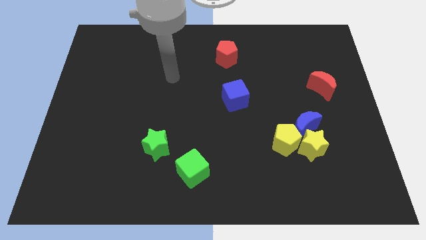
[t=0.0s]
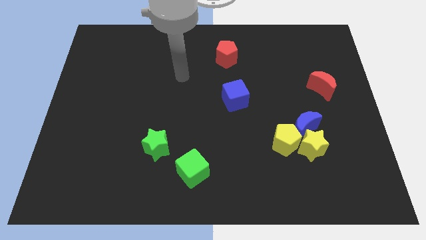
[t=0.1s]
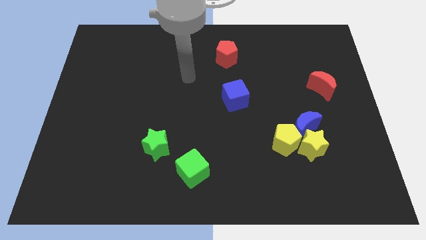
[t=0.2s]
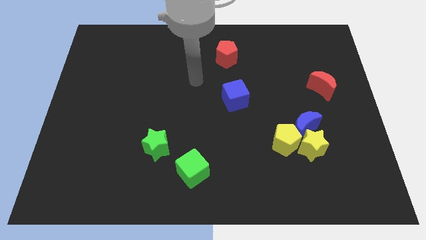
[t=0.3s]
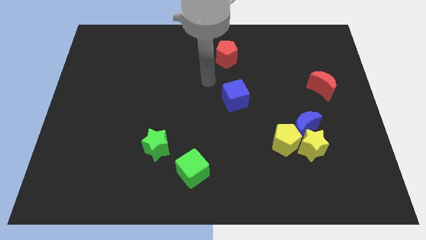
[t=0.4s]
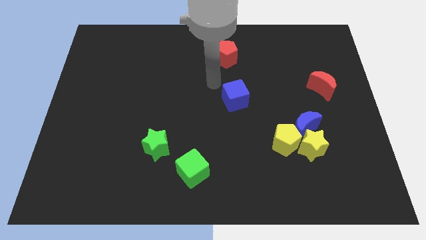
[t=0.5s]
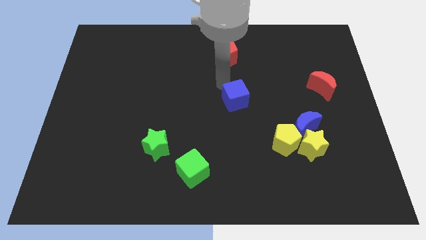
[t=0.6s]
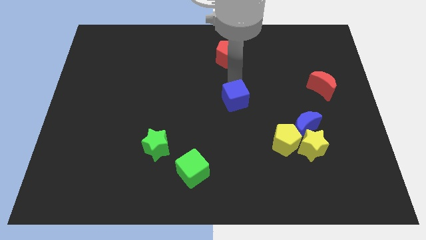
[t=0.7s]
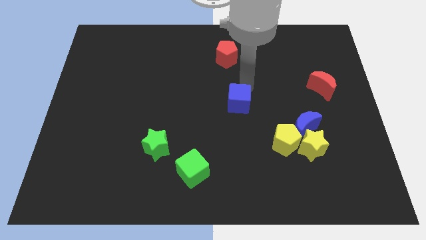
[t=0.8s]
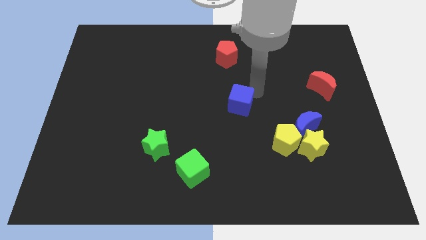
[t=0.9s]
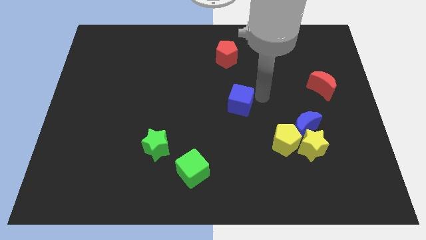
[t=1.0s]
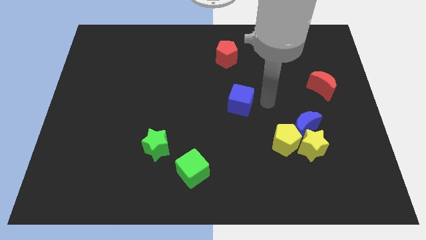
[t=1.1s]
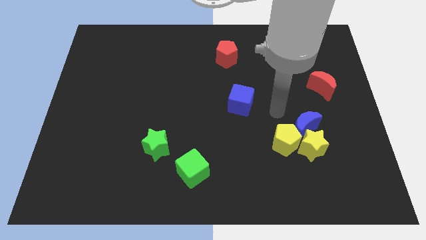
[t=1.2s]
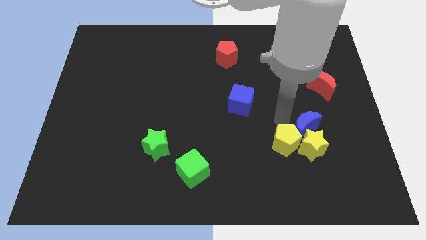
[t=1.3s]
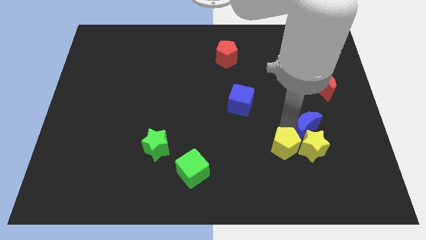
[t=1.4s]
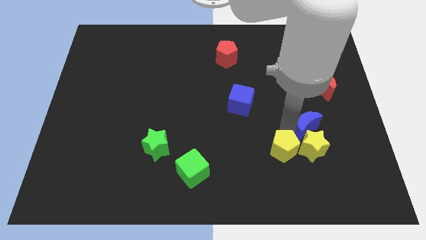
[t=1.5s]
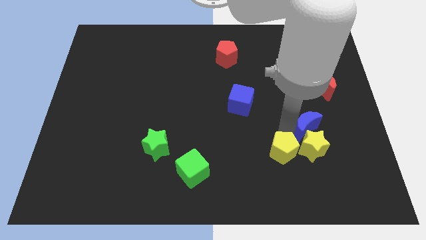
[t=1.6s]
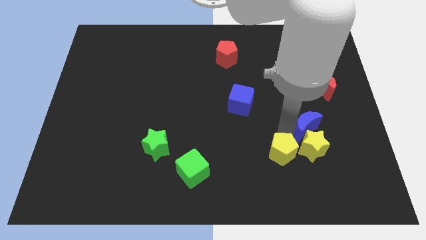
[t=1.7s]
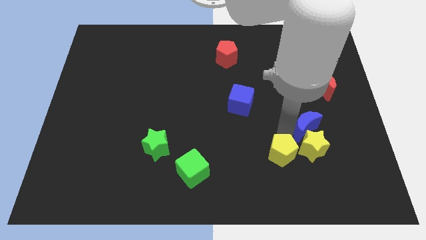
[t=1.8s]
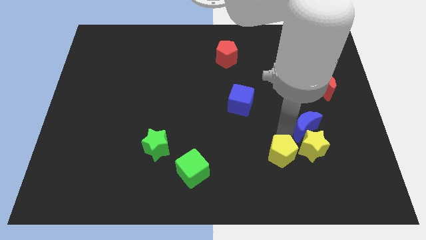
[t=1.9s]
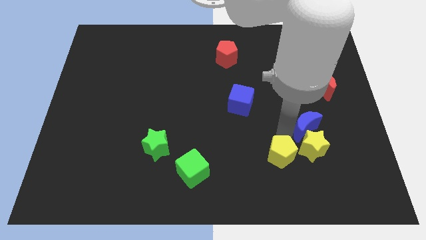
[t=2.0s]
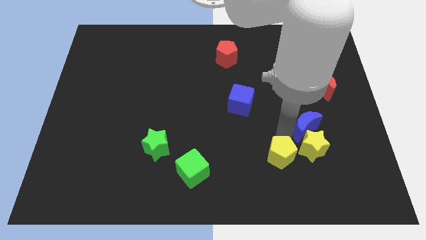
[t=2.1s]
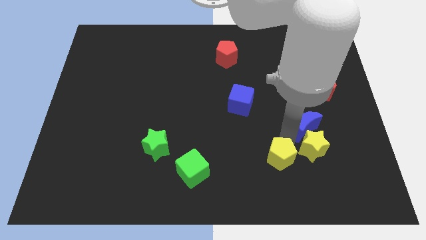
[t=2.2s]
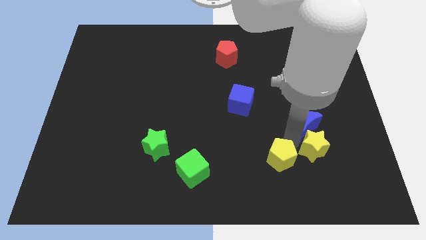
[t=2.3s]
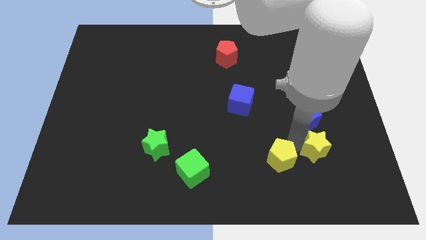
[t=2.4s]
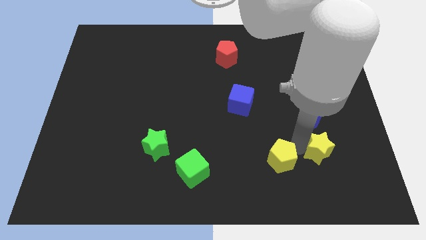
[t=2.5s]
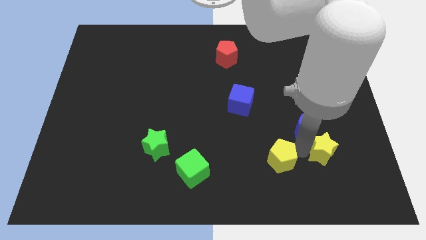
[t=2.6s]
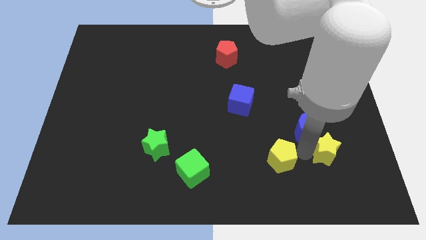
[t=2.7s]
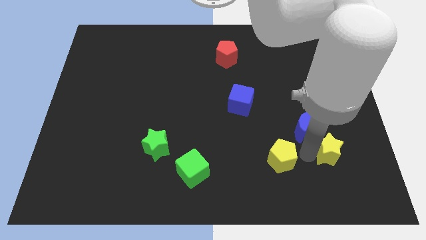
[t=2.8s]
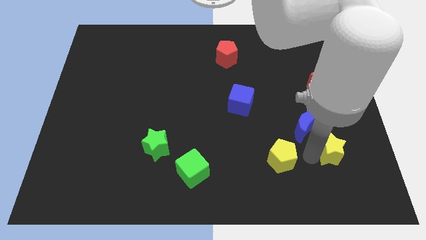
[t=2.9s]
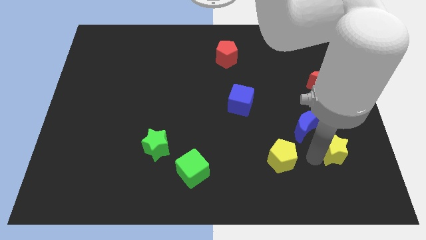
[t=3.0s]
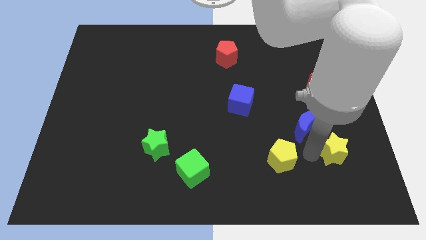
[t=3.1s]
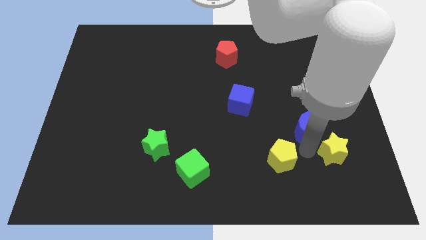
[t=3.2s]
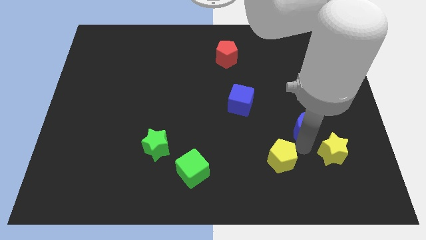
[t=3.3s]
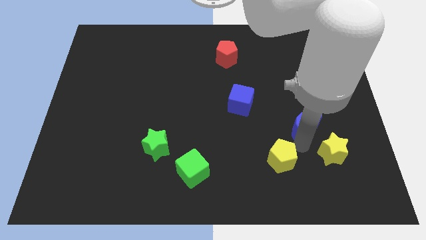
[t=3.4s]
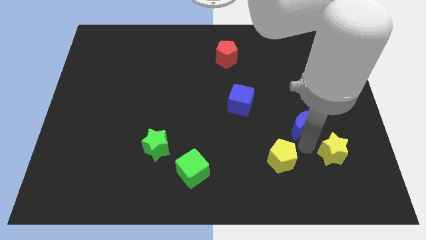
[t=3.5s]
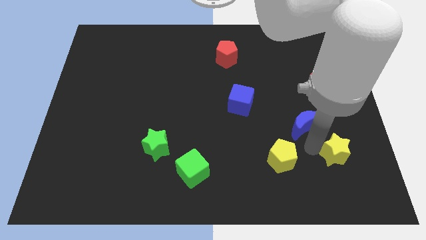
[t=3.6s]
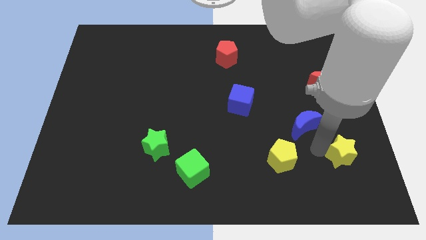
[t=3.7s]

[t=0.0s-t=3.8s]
separate the yellow star from the blue moon and yellow pentagon

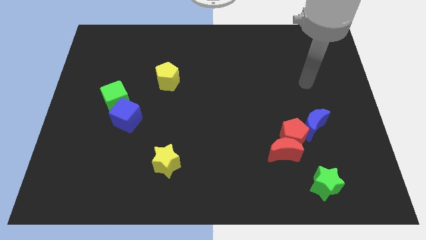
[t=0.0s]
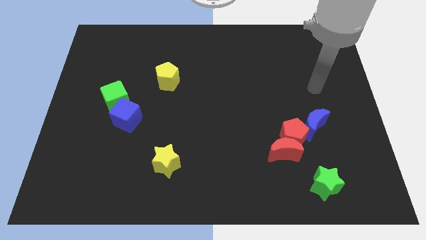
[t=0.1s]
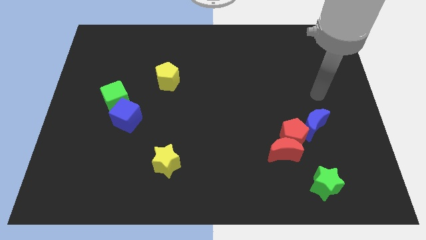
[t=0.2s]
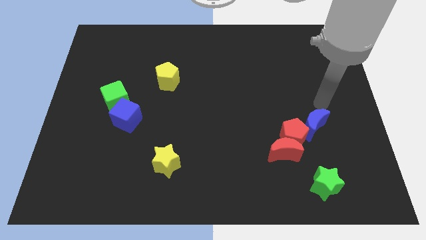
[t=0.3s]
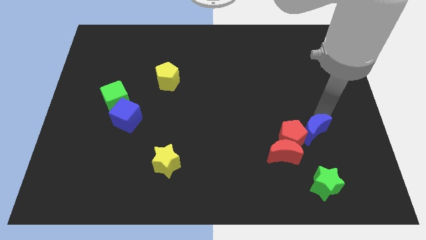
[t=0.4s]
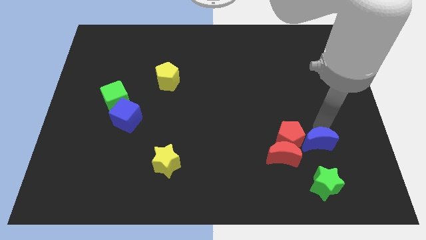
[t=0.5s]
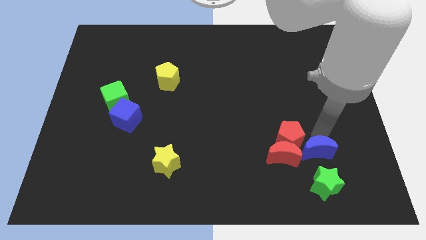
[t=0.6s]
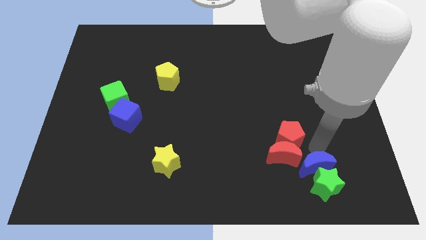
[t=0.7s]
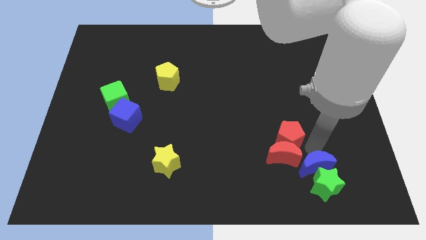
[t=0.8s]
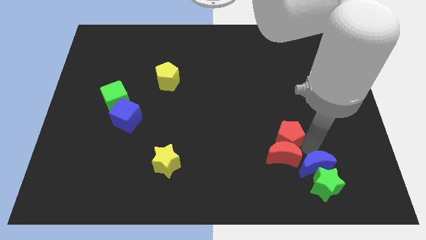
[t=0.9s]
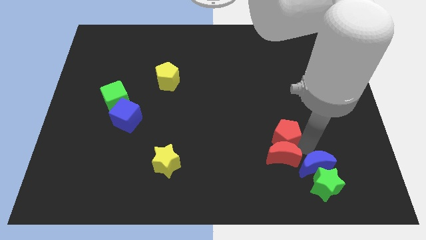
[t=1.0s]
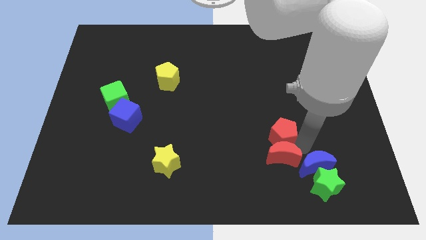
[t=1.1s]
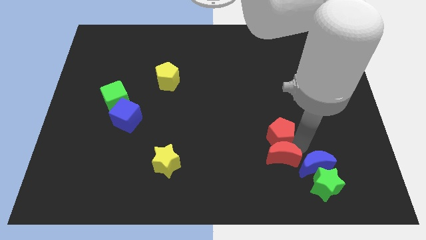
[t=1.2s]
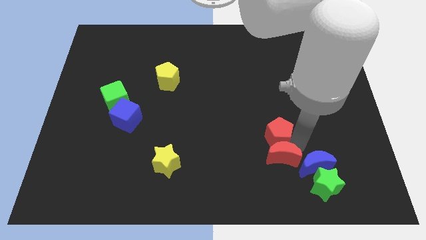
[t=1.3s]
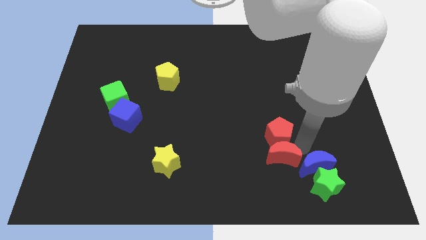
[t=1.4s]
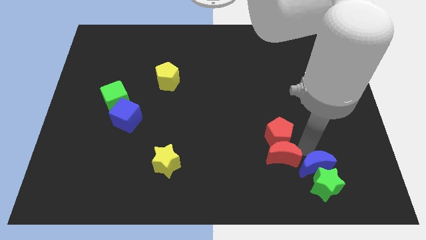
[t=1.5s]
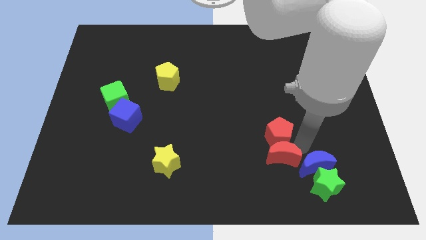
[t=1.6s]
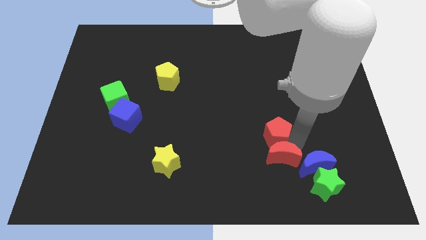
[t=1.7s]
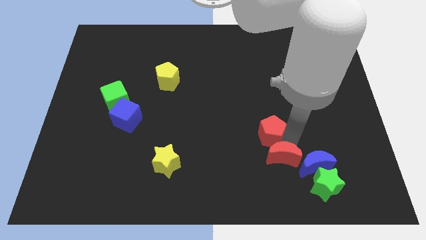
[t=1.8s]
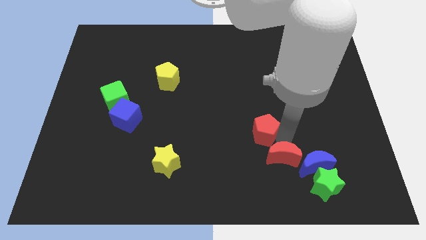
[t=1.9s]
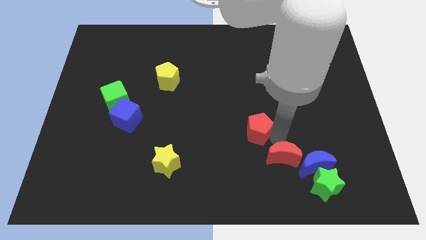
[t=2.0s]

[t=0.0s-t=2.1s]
separate the red pentagon from the red moon and blue moon

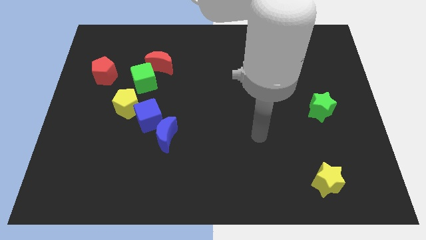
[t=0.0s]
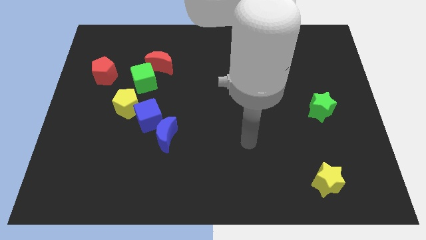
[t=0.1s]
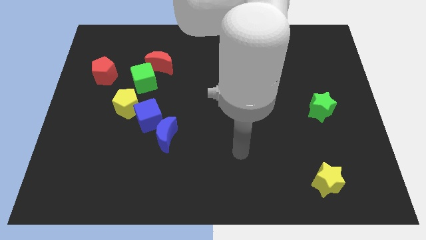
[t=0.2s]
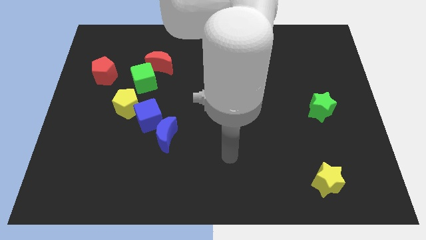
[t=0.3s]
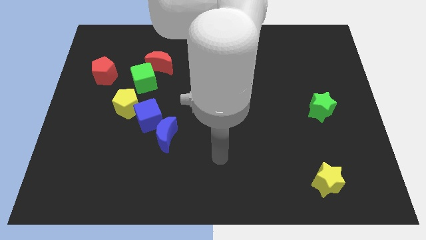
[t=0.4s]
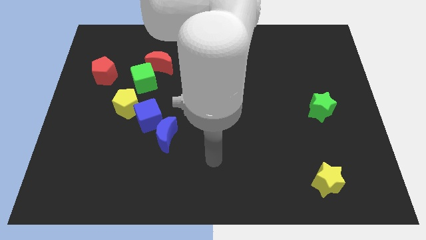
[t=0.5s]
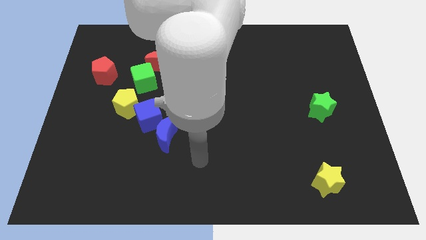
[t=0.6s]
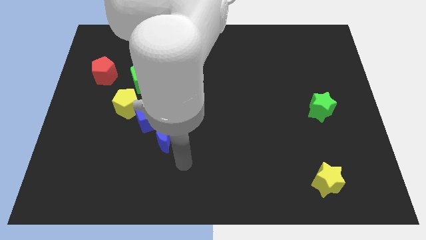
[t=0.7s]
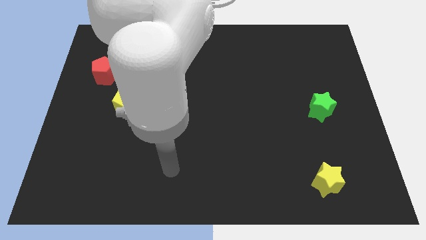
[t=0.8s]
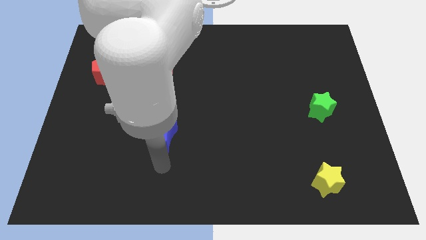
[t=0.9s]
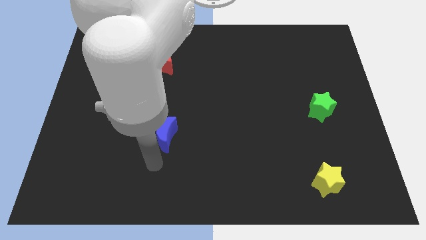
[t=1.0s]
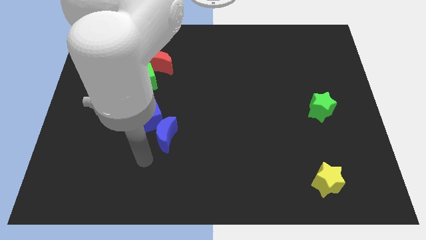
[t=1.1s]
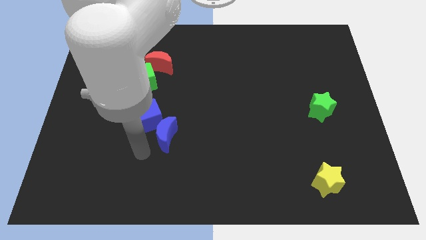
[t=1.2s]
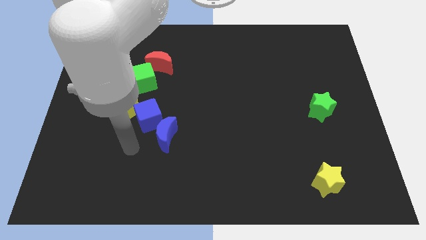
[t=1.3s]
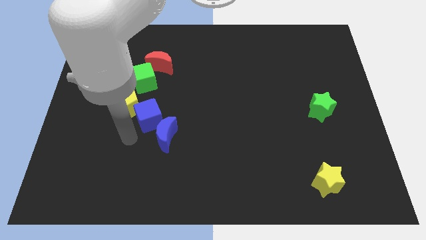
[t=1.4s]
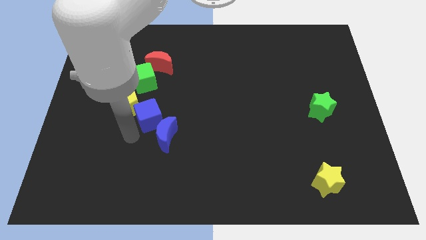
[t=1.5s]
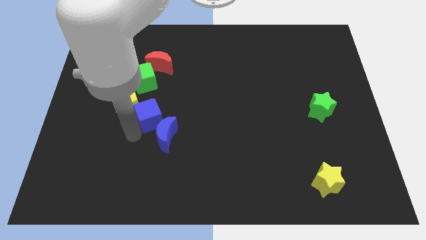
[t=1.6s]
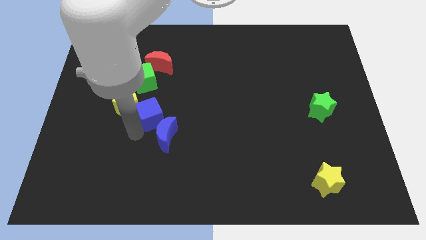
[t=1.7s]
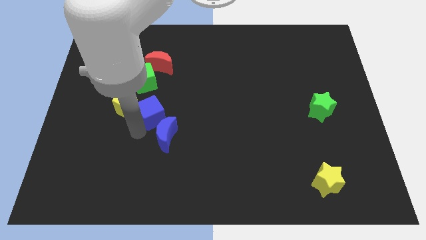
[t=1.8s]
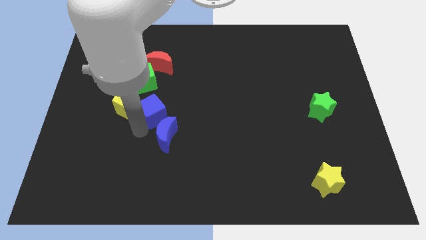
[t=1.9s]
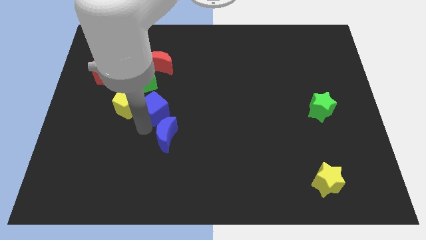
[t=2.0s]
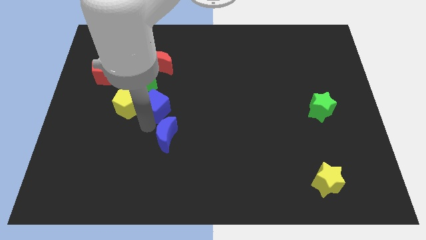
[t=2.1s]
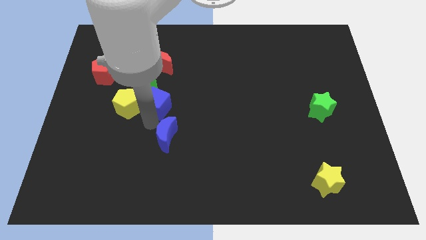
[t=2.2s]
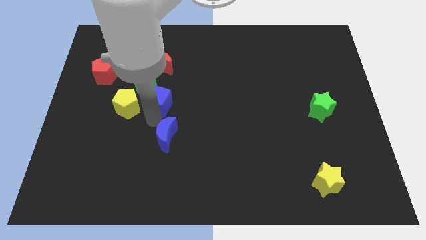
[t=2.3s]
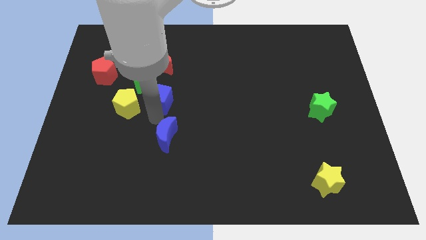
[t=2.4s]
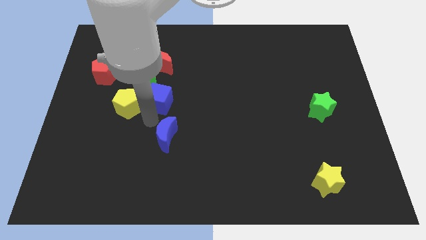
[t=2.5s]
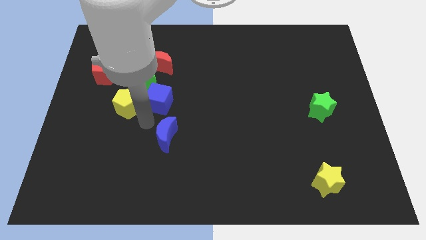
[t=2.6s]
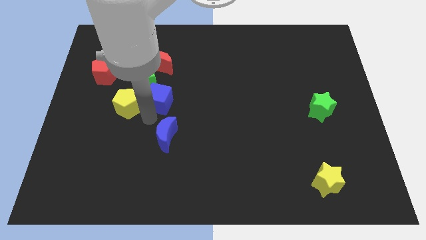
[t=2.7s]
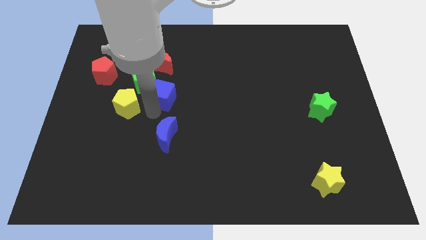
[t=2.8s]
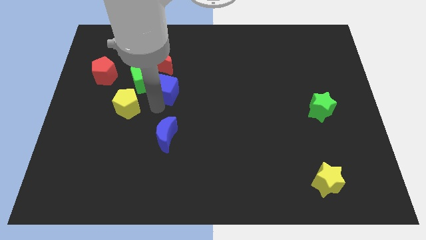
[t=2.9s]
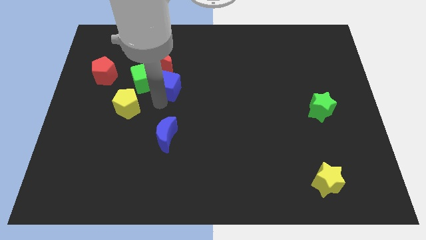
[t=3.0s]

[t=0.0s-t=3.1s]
move the blue cube away from the yellow pentagon and blue moon

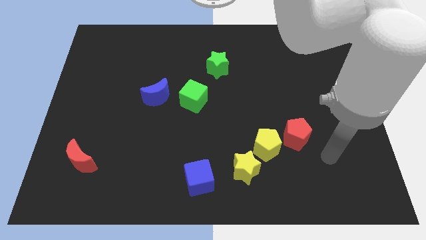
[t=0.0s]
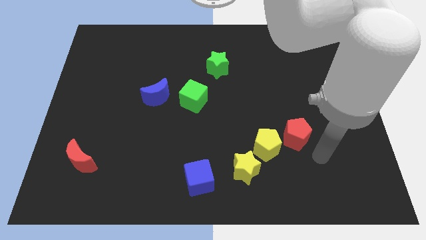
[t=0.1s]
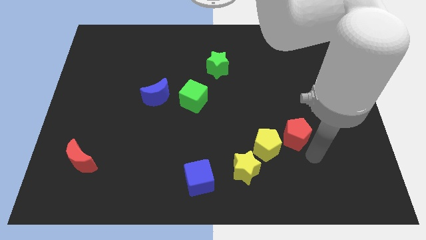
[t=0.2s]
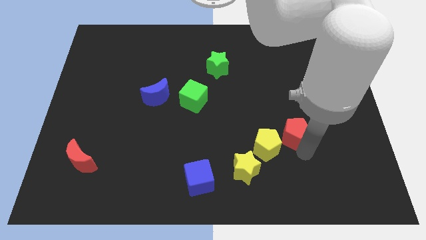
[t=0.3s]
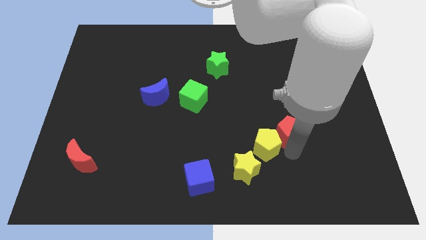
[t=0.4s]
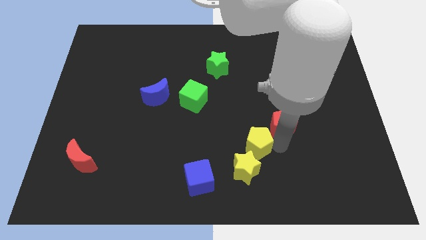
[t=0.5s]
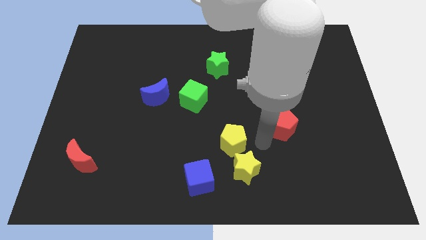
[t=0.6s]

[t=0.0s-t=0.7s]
pull the red pentagon apart from the yellow pentagon
